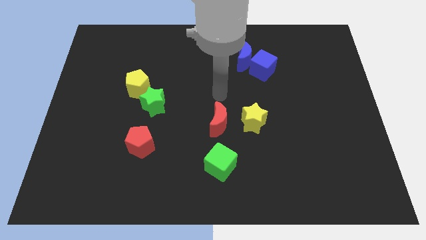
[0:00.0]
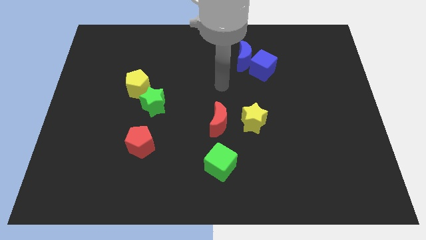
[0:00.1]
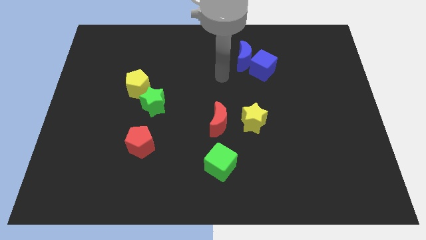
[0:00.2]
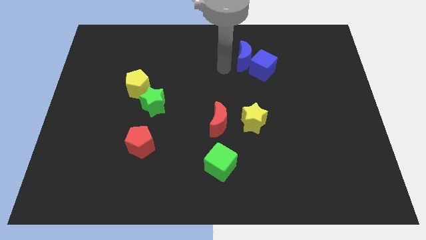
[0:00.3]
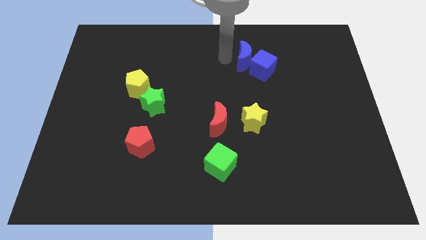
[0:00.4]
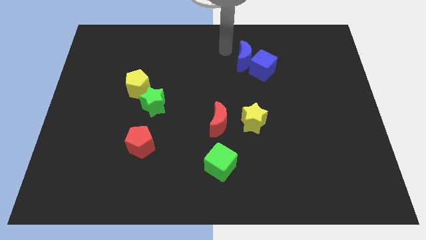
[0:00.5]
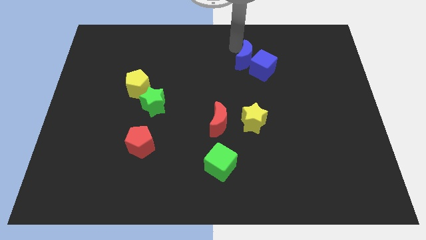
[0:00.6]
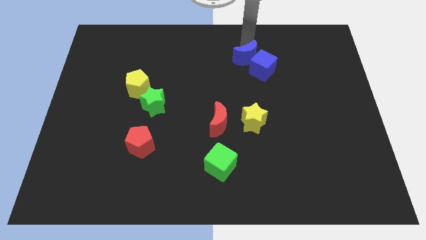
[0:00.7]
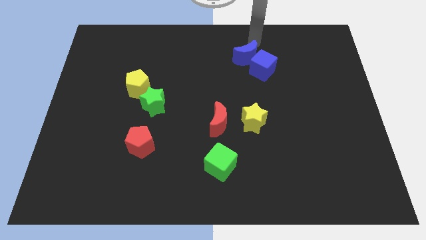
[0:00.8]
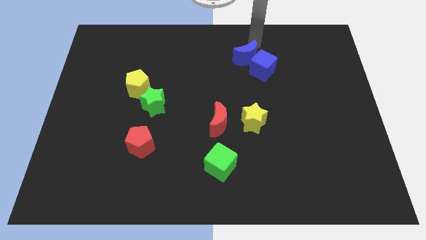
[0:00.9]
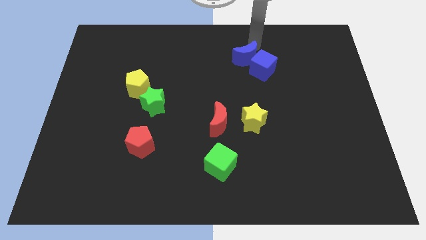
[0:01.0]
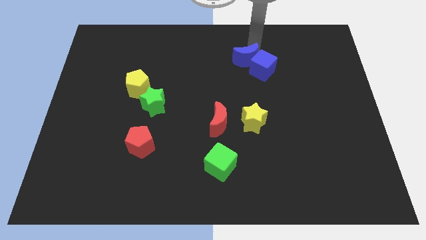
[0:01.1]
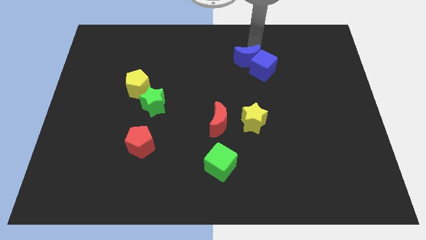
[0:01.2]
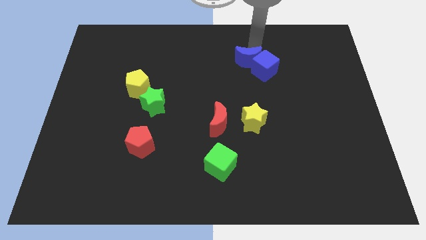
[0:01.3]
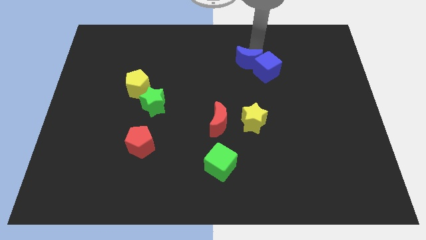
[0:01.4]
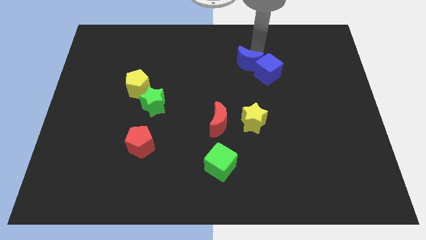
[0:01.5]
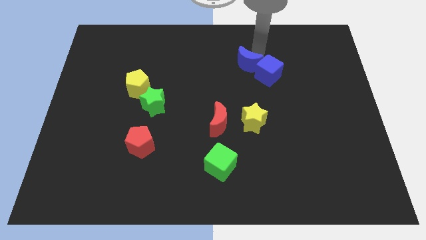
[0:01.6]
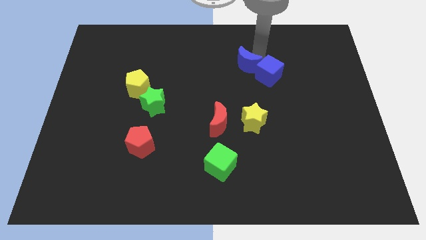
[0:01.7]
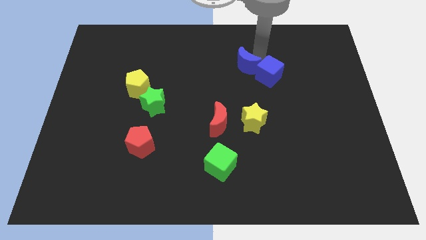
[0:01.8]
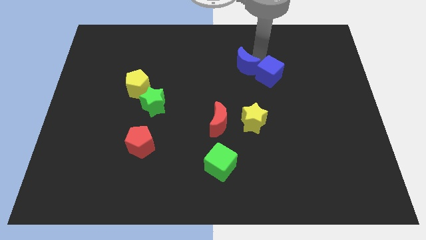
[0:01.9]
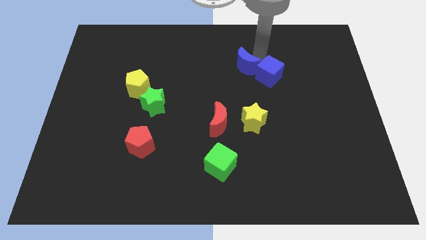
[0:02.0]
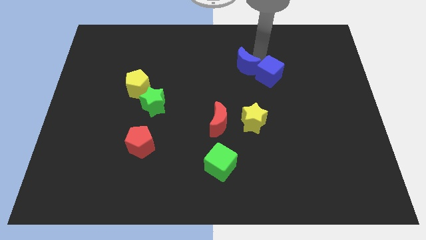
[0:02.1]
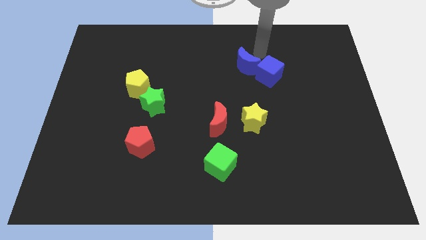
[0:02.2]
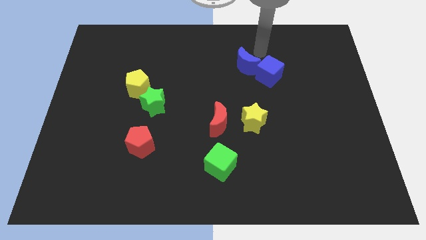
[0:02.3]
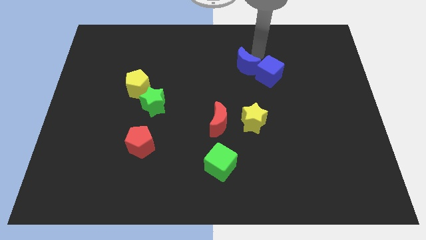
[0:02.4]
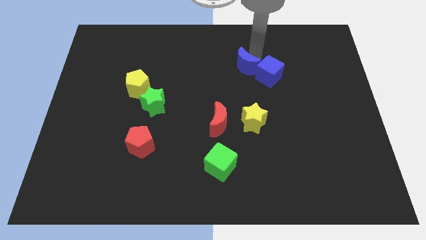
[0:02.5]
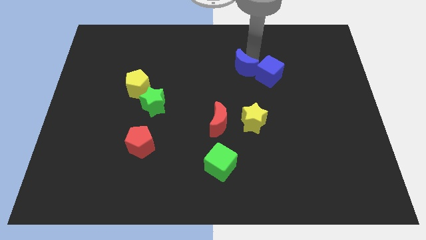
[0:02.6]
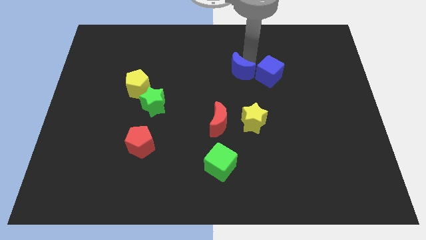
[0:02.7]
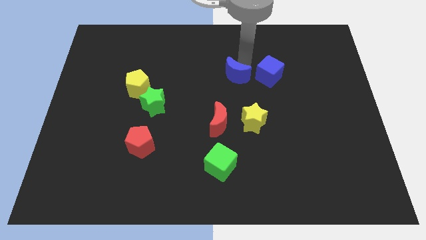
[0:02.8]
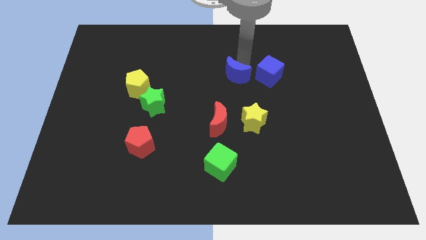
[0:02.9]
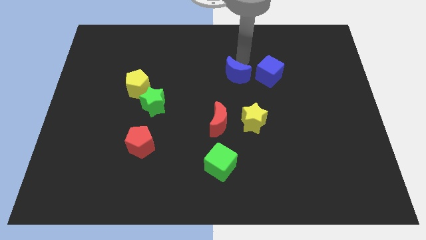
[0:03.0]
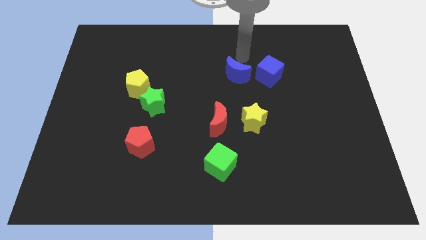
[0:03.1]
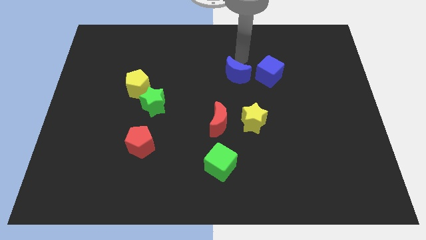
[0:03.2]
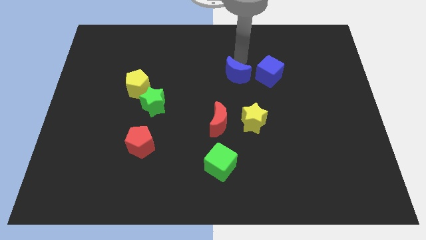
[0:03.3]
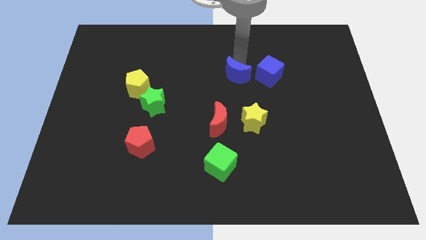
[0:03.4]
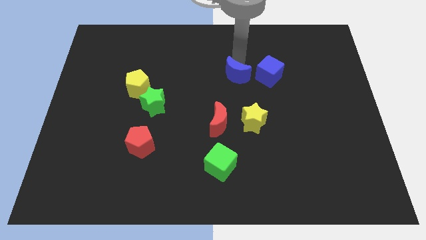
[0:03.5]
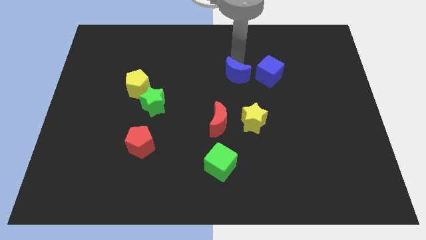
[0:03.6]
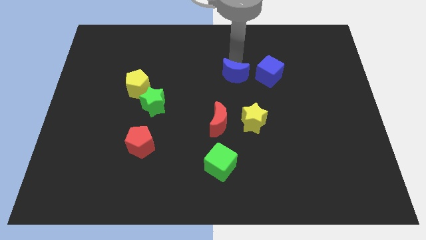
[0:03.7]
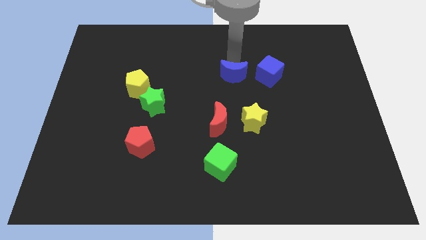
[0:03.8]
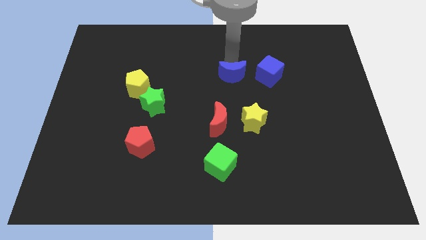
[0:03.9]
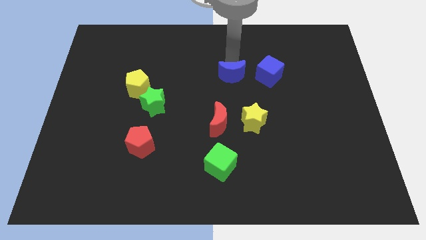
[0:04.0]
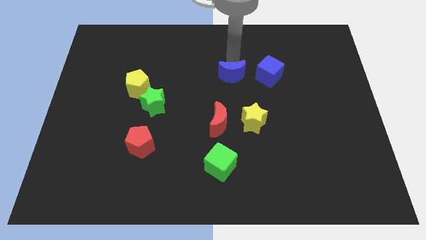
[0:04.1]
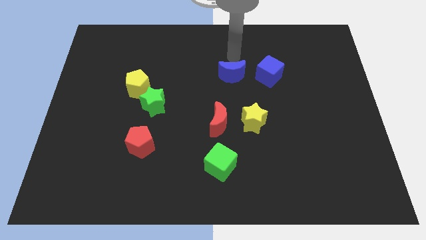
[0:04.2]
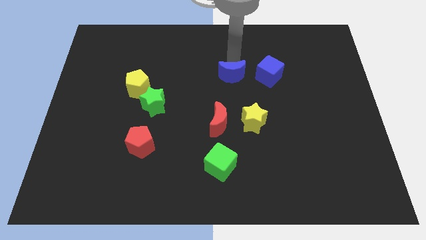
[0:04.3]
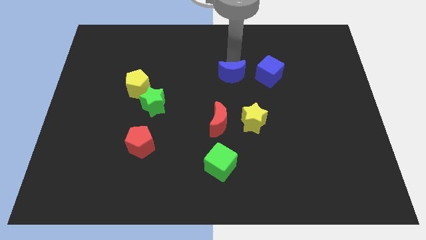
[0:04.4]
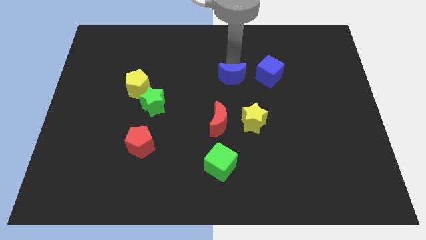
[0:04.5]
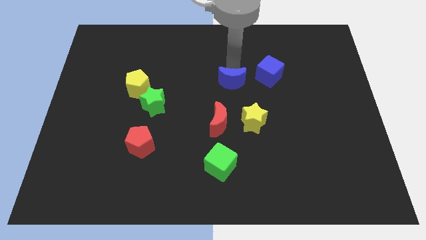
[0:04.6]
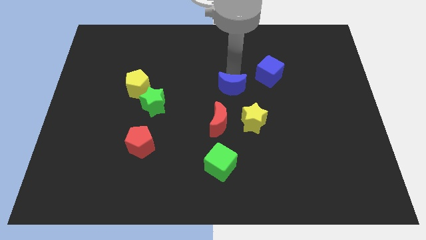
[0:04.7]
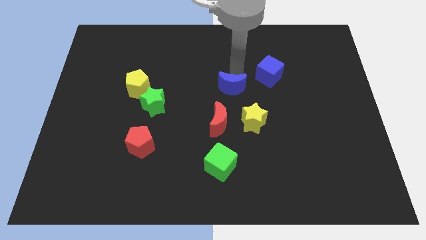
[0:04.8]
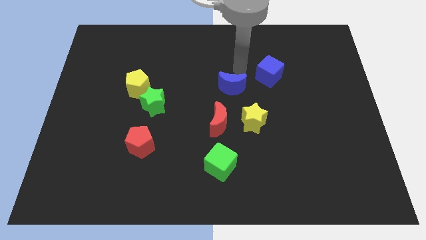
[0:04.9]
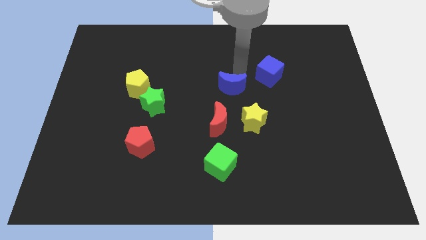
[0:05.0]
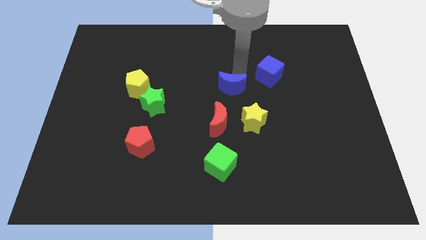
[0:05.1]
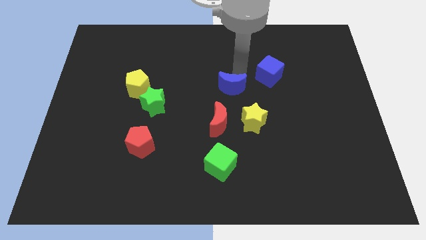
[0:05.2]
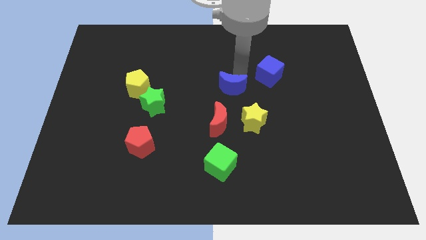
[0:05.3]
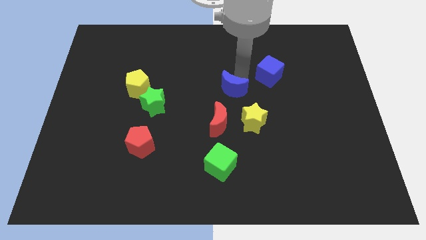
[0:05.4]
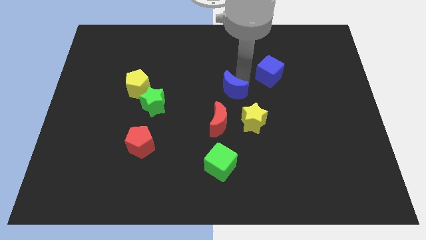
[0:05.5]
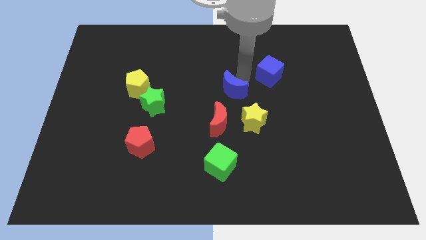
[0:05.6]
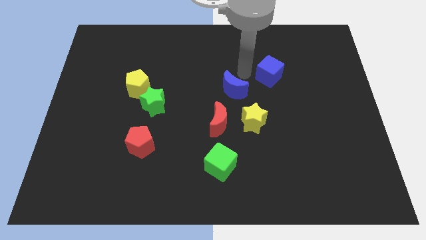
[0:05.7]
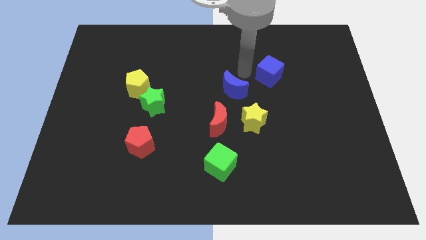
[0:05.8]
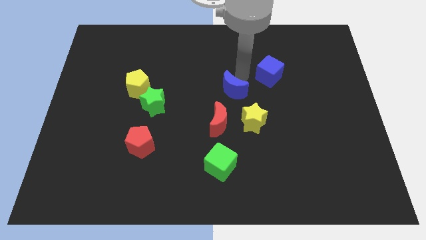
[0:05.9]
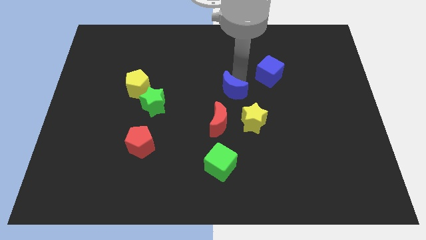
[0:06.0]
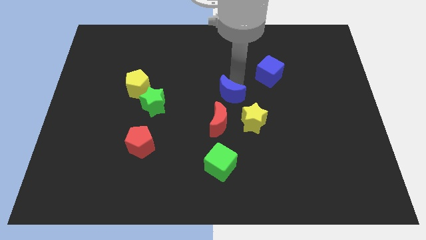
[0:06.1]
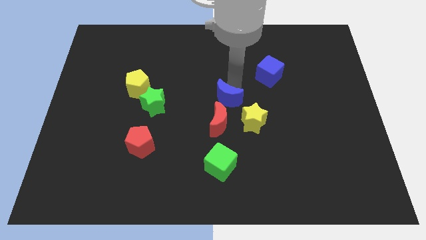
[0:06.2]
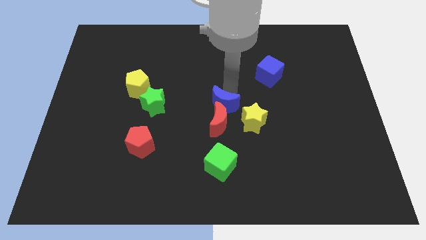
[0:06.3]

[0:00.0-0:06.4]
move the blue moon close to the red moon

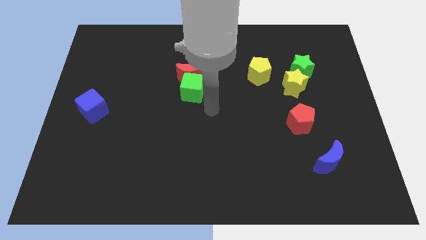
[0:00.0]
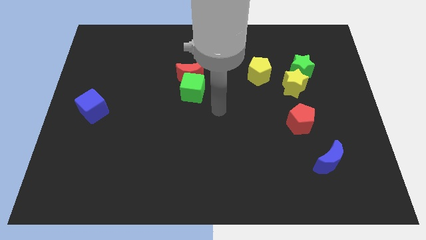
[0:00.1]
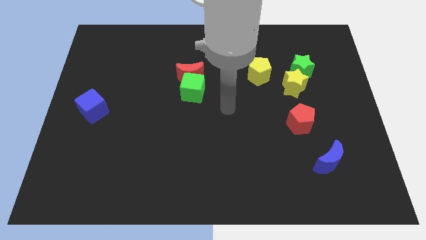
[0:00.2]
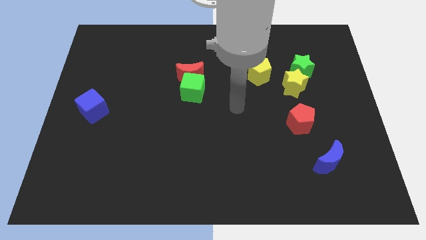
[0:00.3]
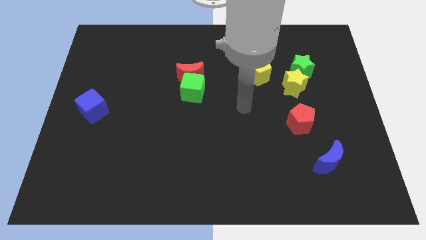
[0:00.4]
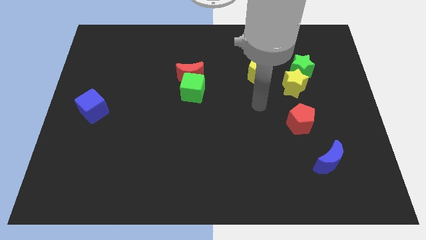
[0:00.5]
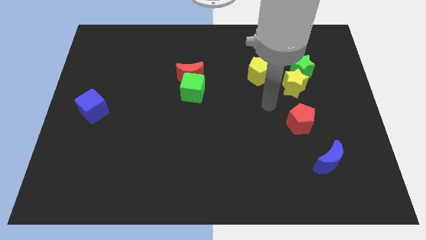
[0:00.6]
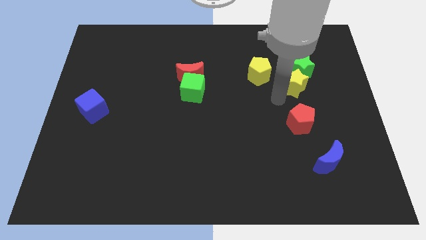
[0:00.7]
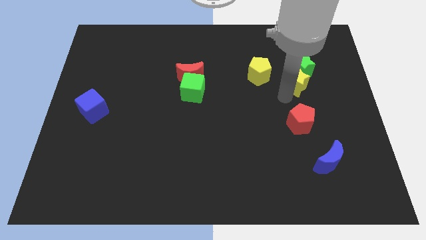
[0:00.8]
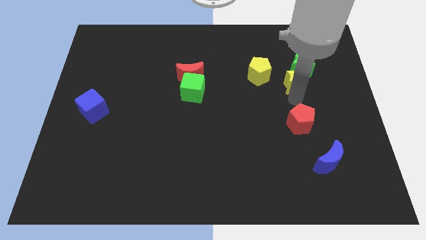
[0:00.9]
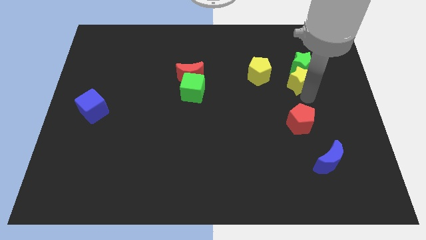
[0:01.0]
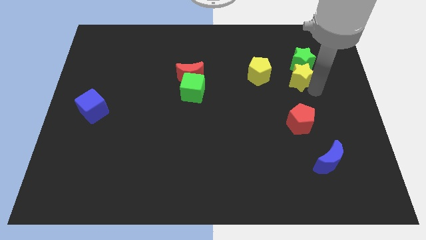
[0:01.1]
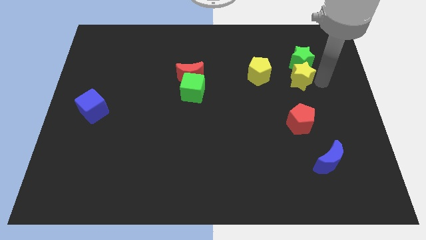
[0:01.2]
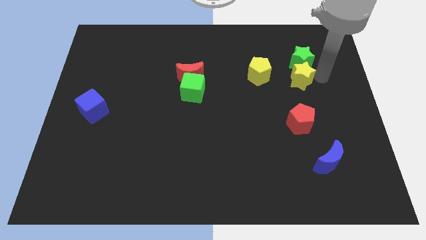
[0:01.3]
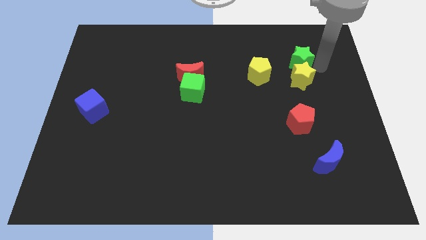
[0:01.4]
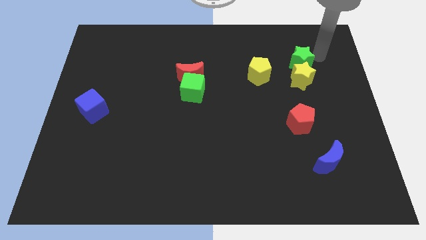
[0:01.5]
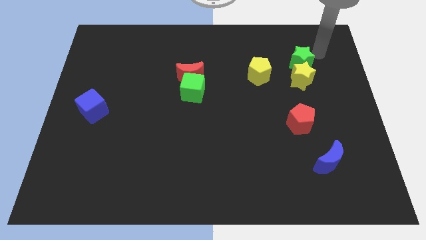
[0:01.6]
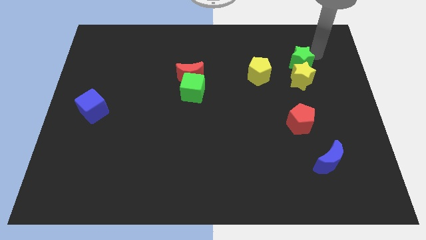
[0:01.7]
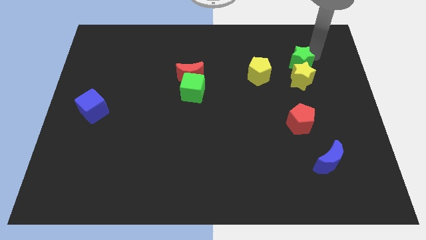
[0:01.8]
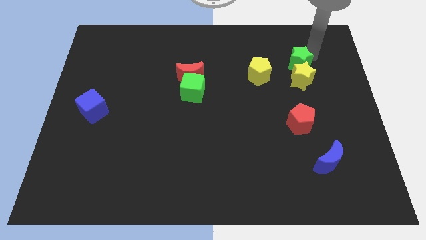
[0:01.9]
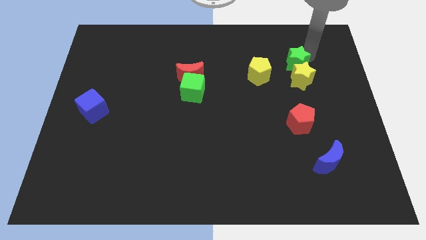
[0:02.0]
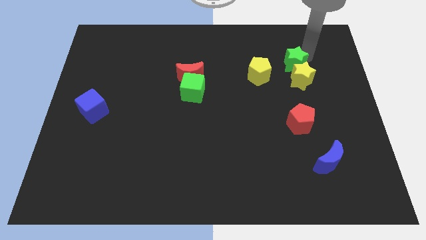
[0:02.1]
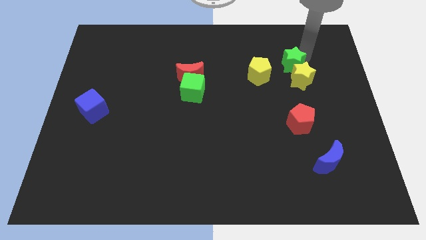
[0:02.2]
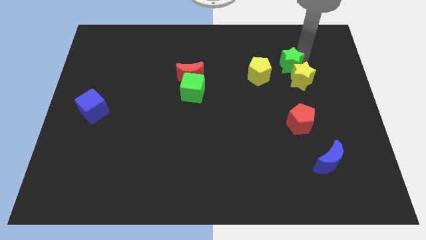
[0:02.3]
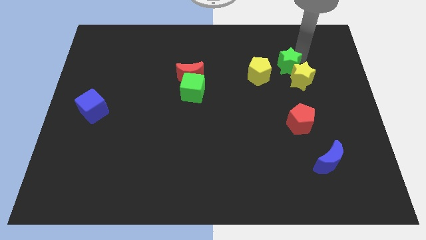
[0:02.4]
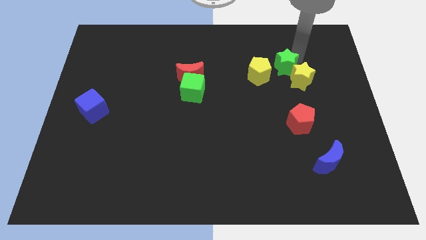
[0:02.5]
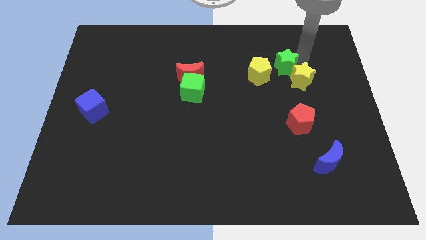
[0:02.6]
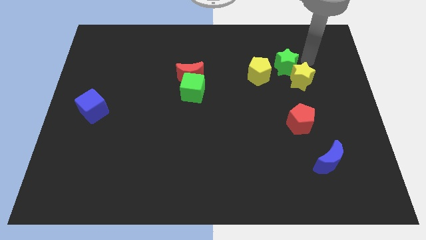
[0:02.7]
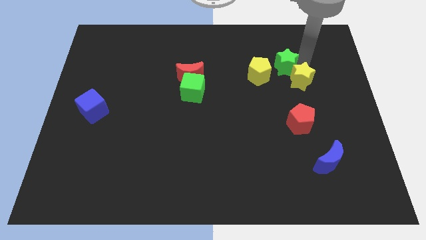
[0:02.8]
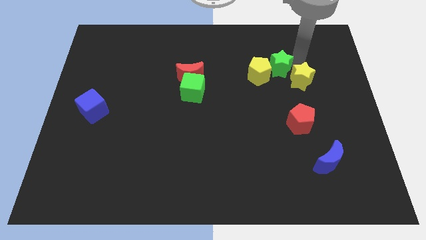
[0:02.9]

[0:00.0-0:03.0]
put the green star towards the yellow pentagon
